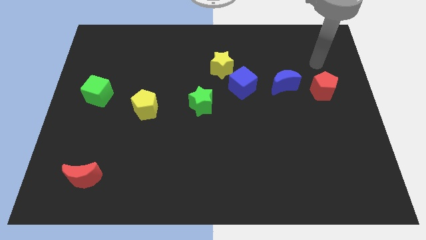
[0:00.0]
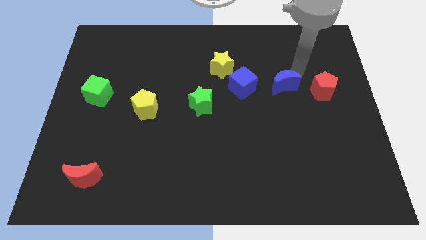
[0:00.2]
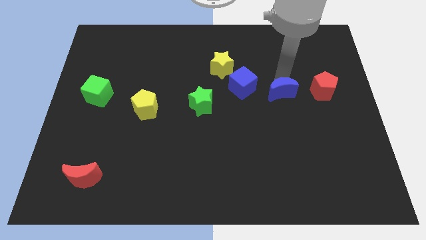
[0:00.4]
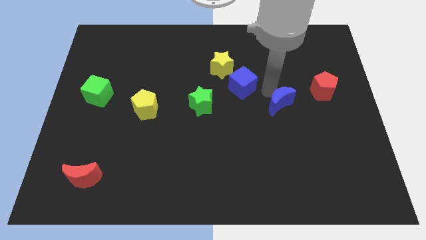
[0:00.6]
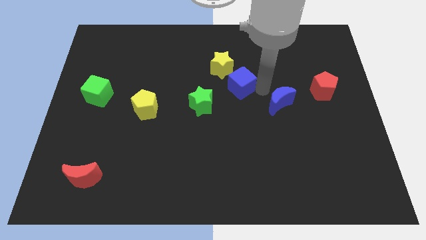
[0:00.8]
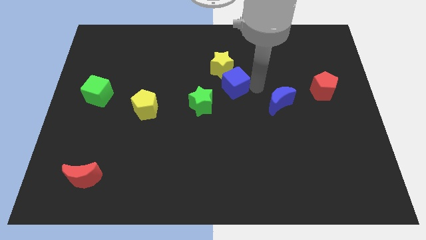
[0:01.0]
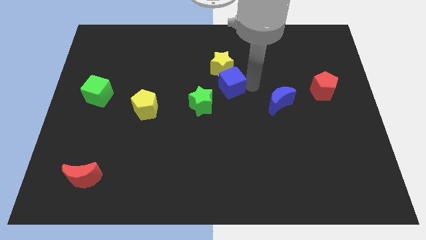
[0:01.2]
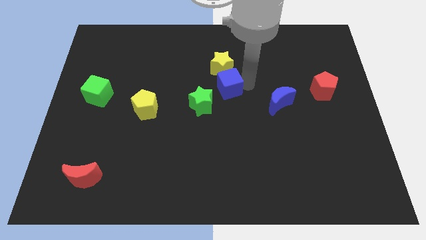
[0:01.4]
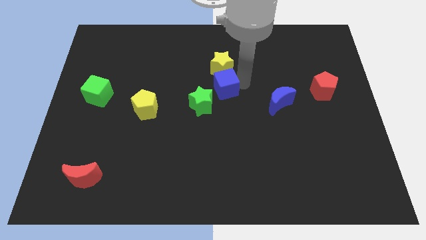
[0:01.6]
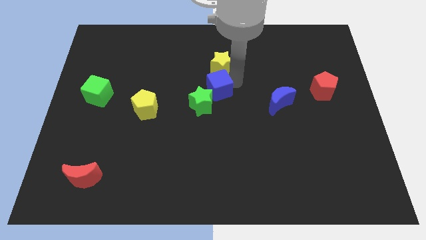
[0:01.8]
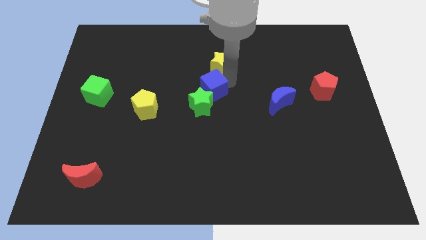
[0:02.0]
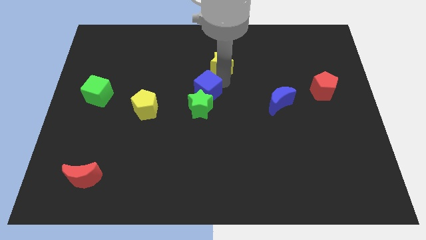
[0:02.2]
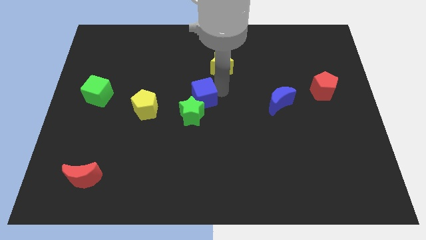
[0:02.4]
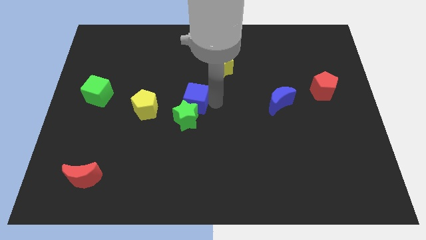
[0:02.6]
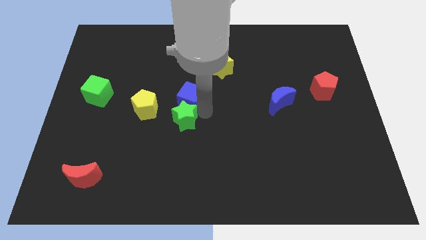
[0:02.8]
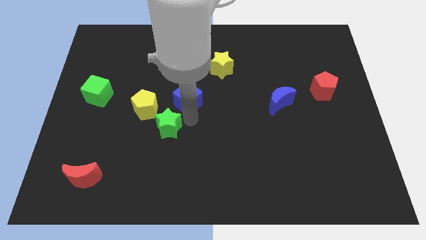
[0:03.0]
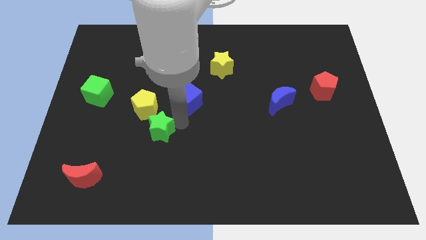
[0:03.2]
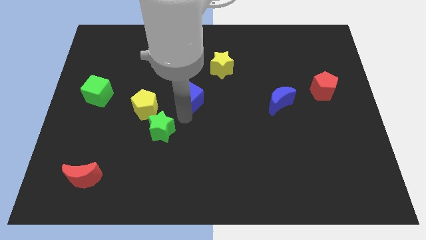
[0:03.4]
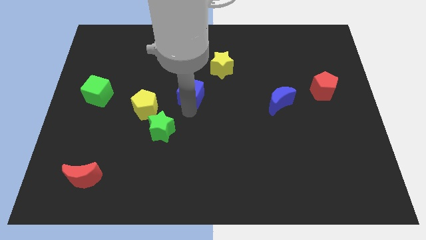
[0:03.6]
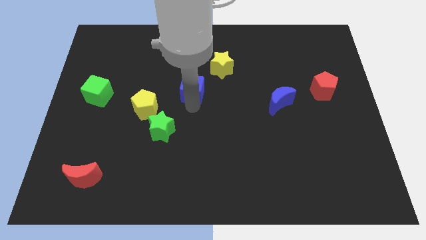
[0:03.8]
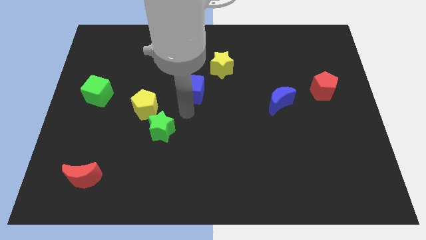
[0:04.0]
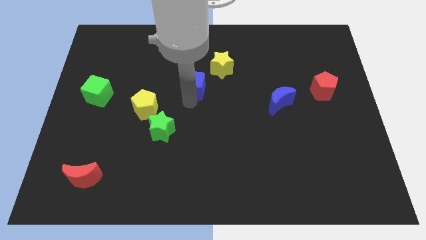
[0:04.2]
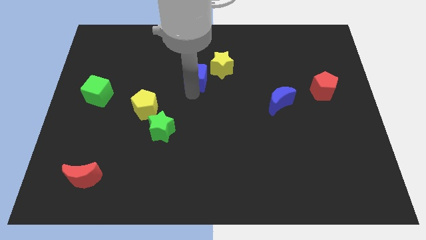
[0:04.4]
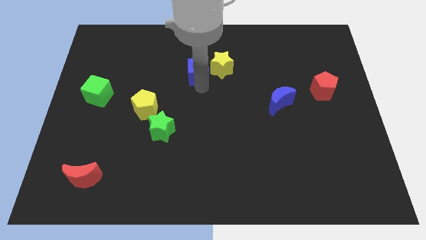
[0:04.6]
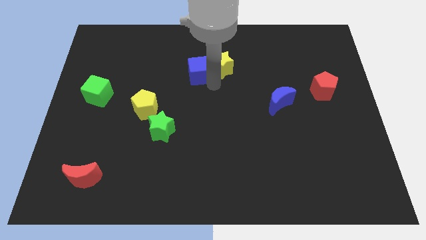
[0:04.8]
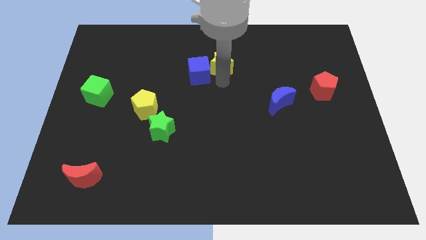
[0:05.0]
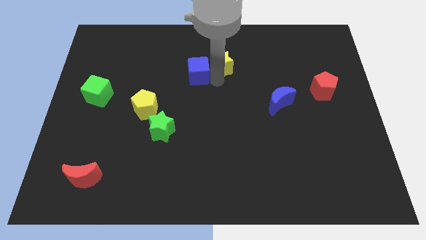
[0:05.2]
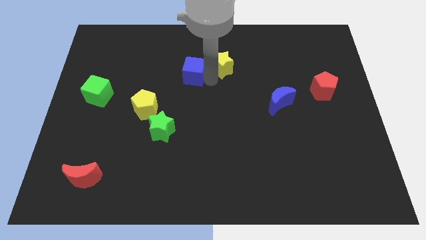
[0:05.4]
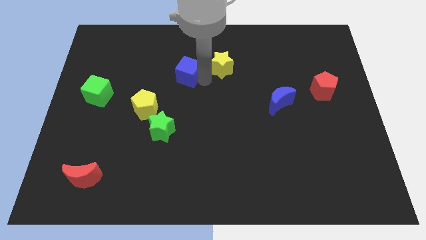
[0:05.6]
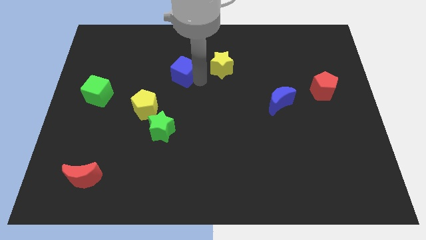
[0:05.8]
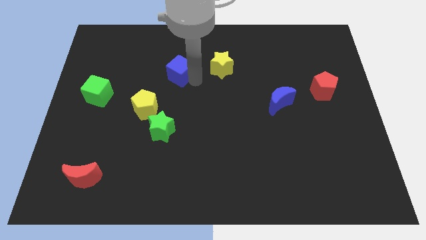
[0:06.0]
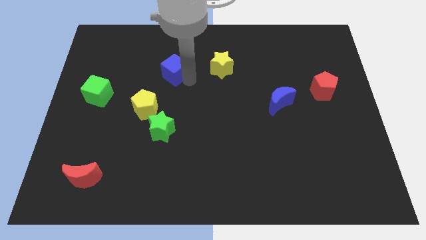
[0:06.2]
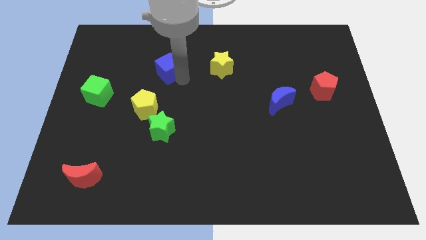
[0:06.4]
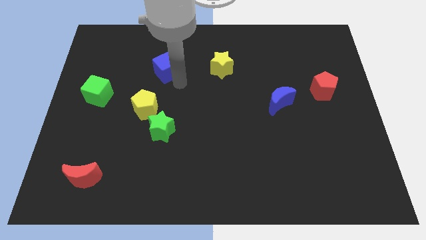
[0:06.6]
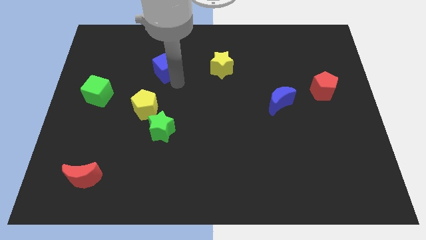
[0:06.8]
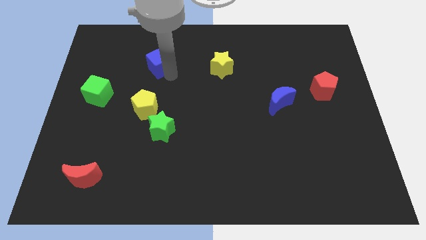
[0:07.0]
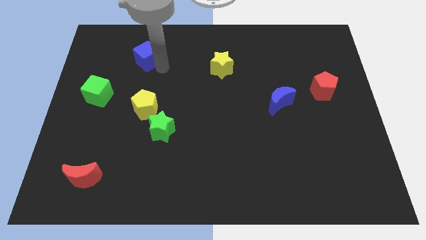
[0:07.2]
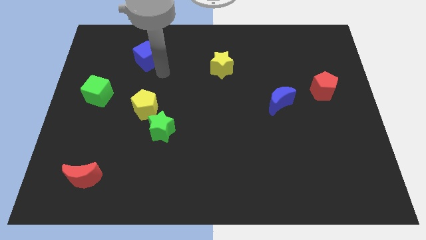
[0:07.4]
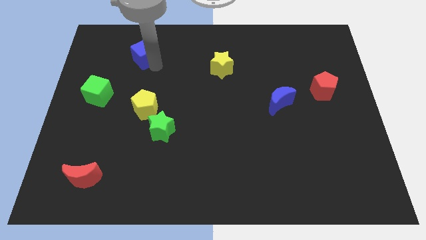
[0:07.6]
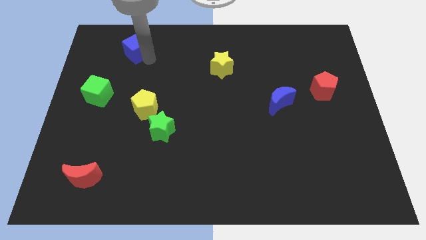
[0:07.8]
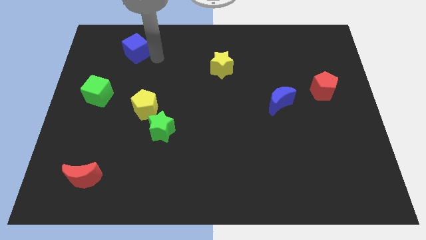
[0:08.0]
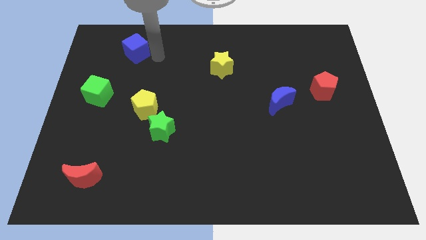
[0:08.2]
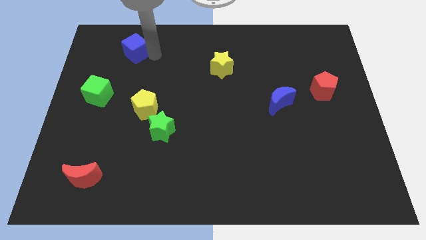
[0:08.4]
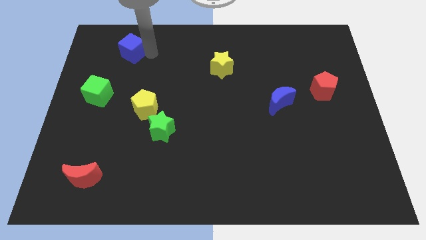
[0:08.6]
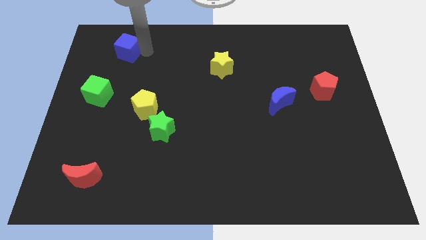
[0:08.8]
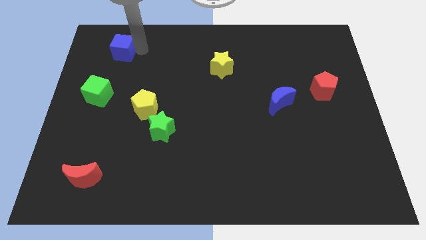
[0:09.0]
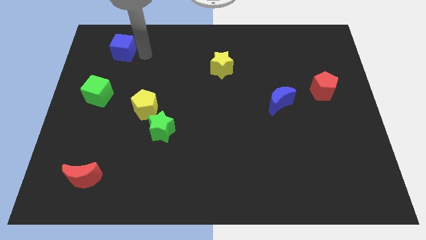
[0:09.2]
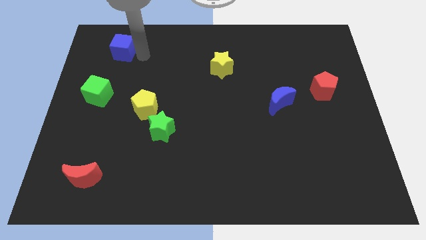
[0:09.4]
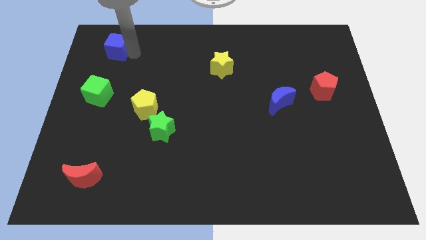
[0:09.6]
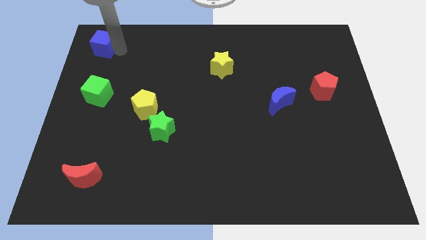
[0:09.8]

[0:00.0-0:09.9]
move the blue cube to the top left corner

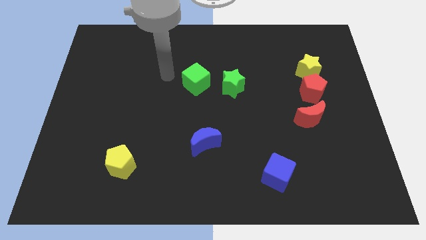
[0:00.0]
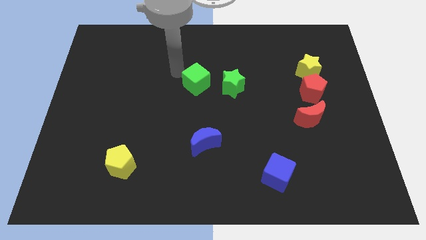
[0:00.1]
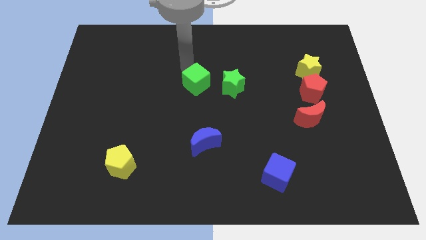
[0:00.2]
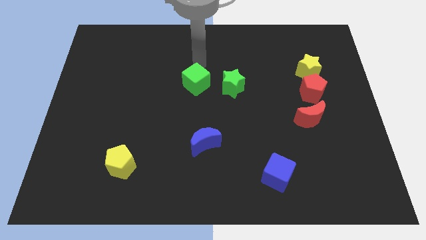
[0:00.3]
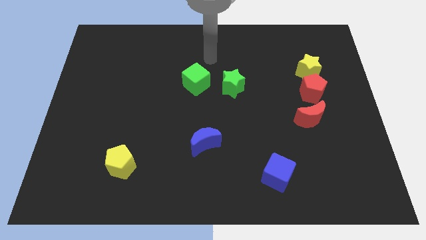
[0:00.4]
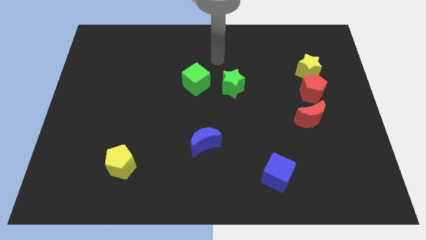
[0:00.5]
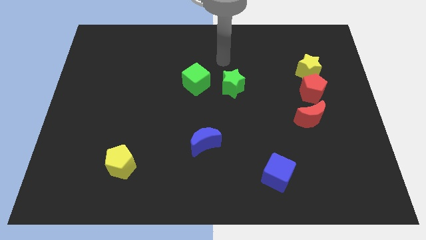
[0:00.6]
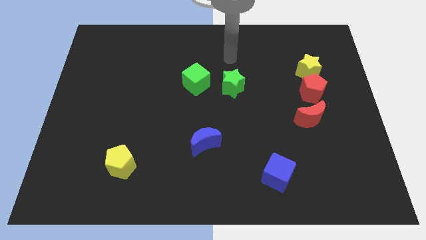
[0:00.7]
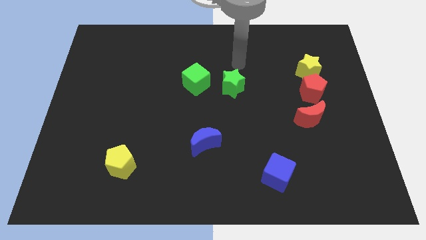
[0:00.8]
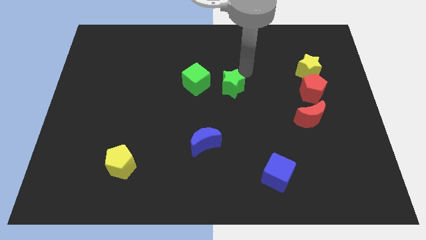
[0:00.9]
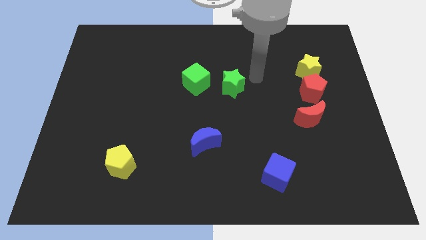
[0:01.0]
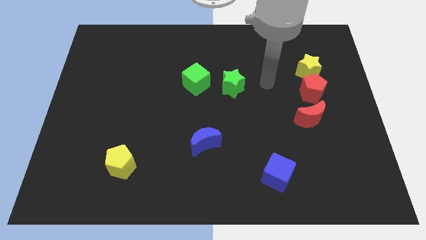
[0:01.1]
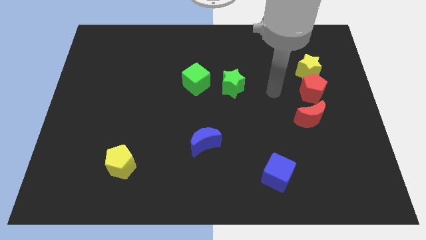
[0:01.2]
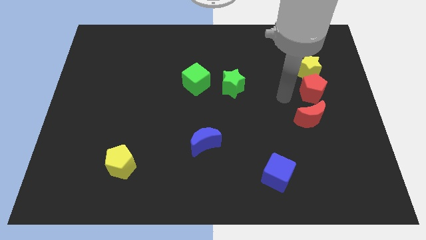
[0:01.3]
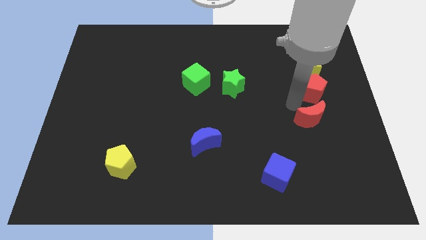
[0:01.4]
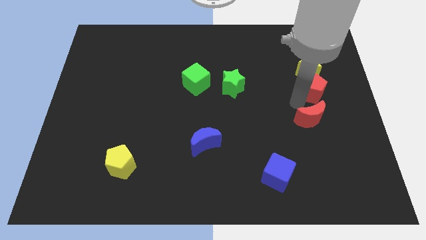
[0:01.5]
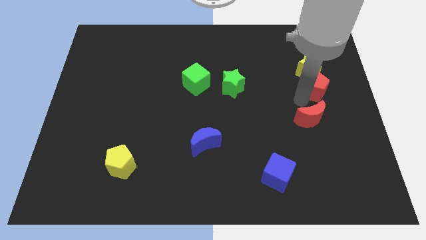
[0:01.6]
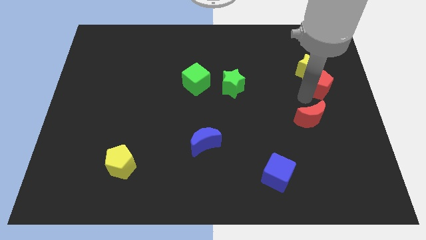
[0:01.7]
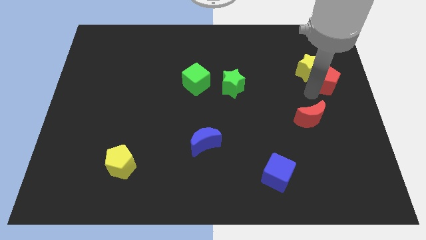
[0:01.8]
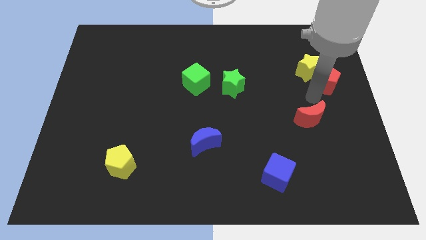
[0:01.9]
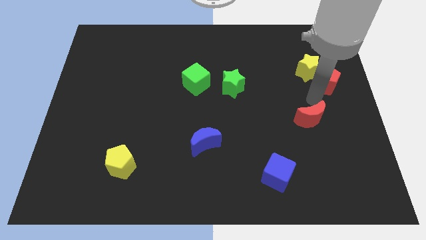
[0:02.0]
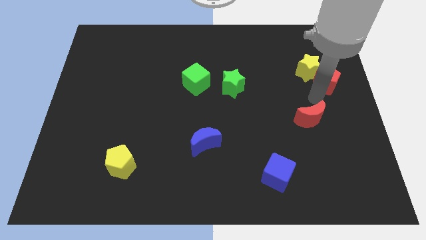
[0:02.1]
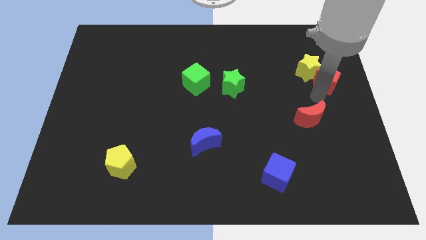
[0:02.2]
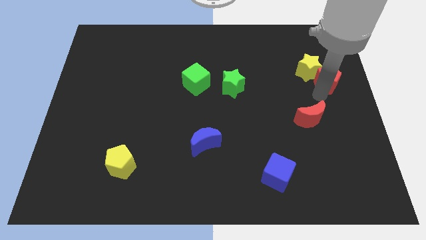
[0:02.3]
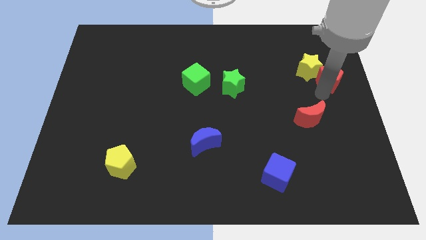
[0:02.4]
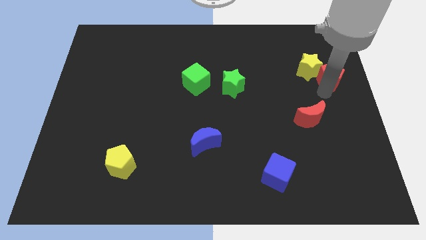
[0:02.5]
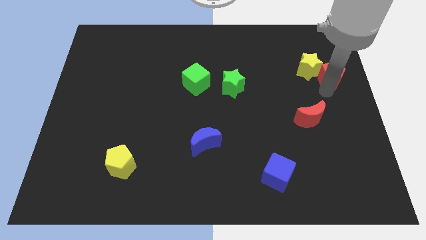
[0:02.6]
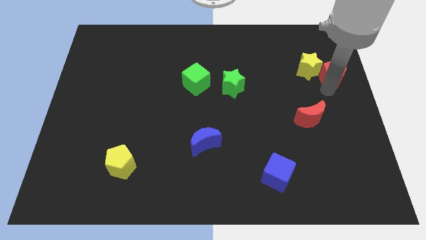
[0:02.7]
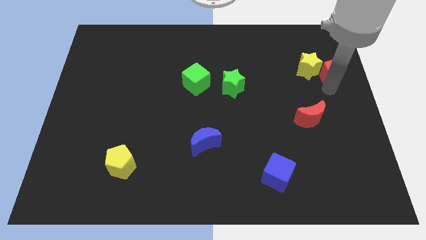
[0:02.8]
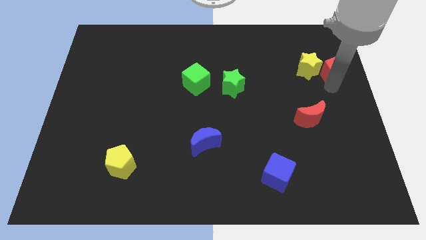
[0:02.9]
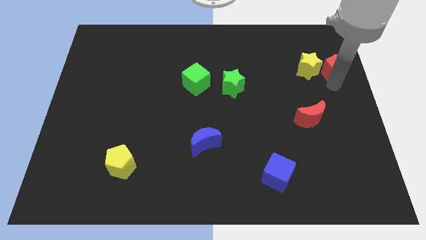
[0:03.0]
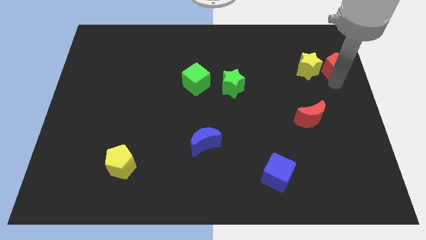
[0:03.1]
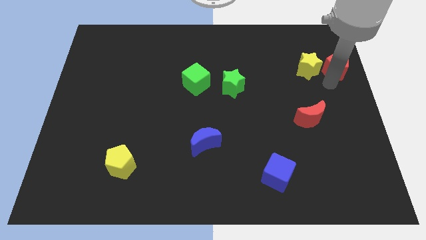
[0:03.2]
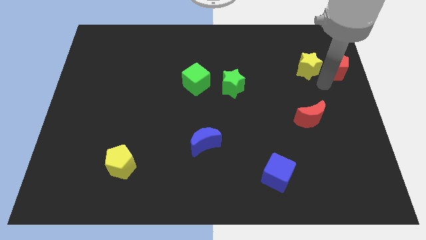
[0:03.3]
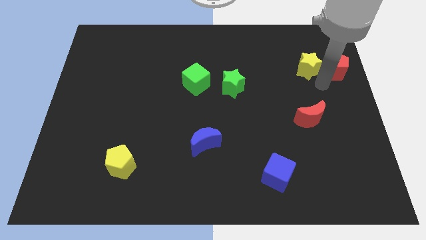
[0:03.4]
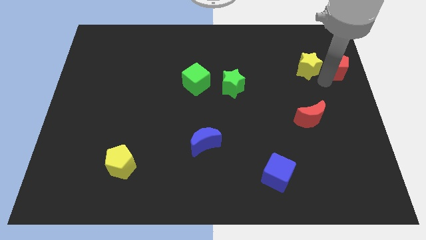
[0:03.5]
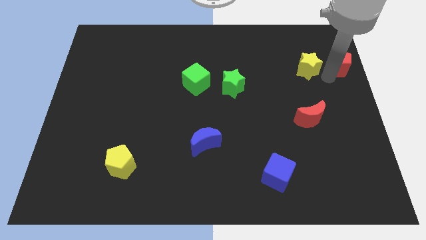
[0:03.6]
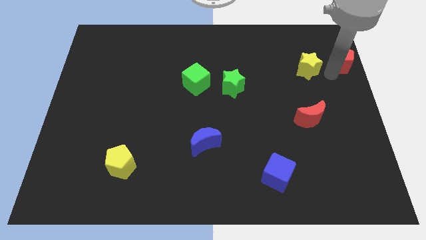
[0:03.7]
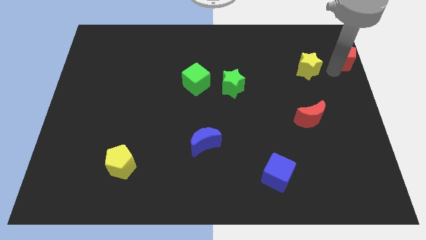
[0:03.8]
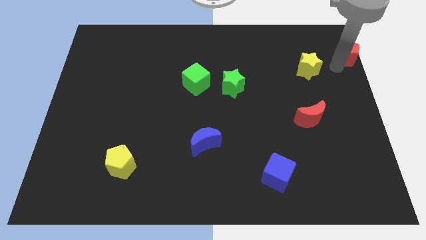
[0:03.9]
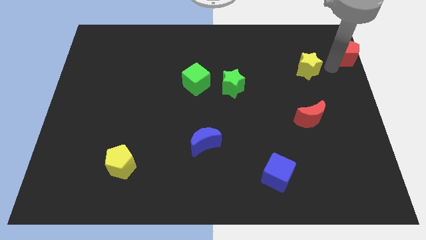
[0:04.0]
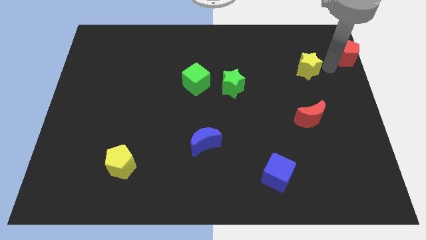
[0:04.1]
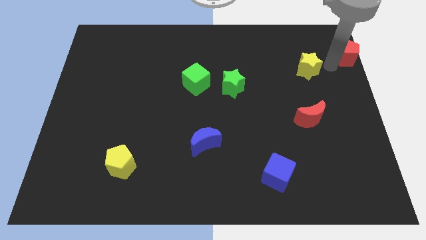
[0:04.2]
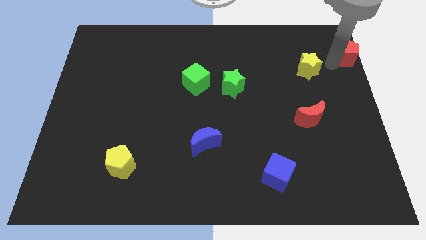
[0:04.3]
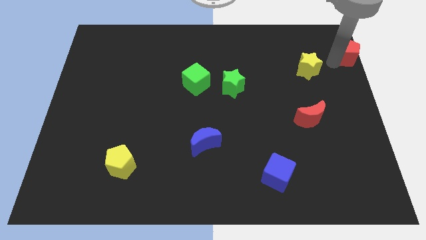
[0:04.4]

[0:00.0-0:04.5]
slide the red pentagon to the top right of the board
